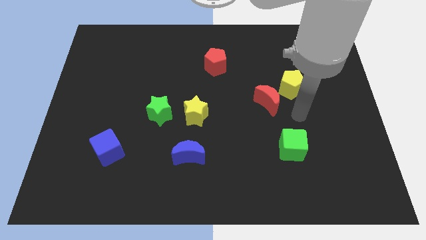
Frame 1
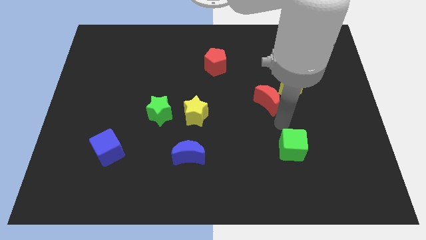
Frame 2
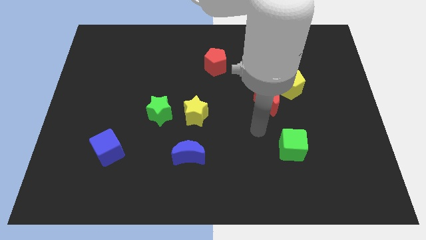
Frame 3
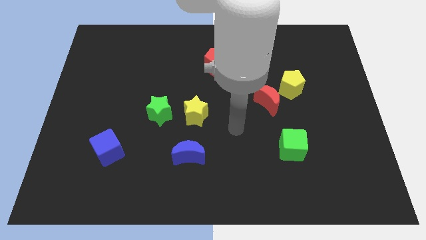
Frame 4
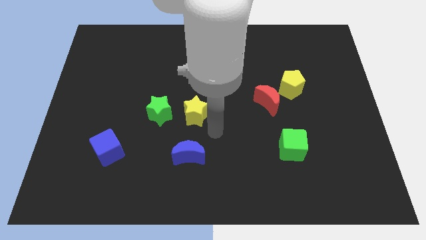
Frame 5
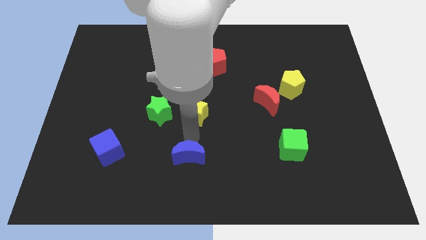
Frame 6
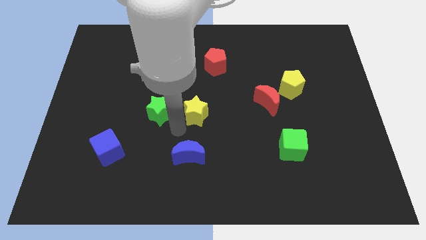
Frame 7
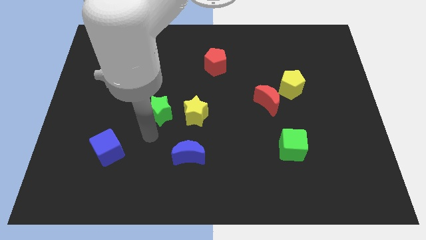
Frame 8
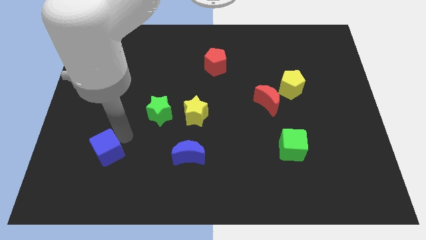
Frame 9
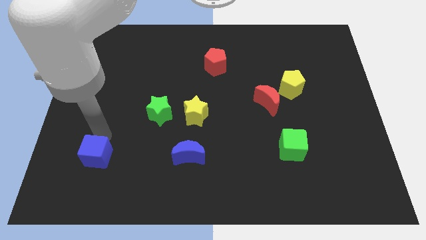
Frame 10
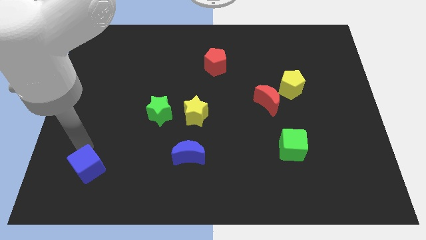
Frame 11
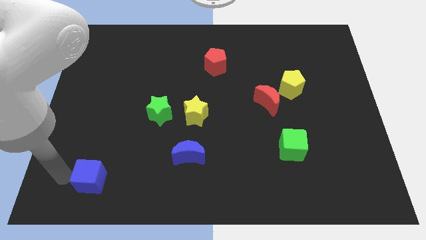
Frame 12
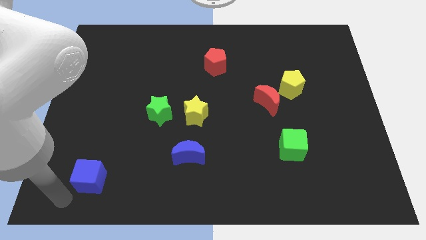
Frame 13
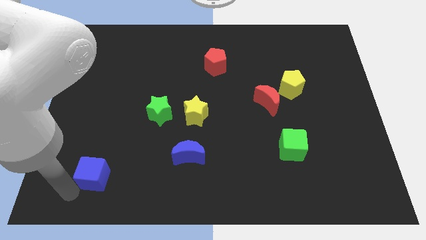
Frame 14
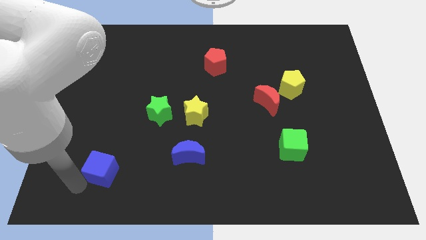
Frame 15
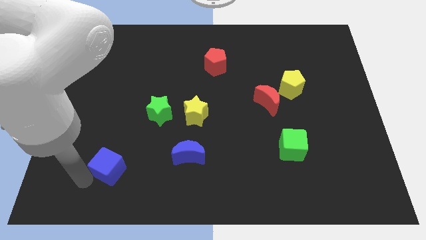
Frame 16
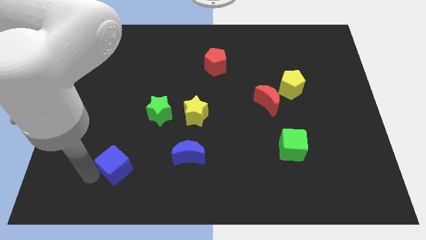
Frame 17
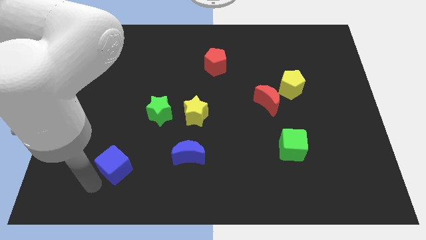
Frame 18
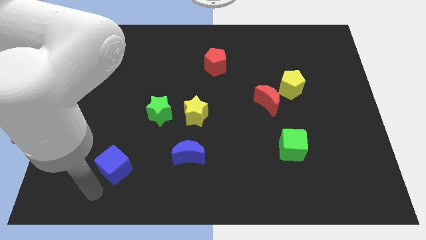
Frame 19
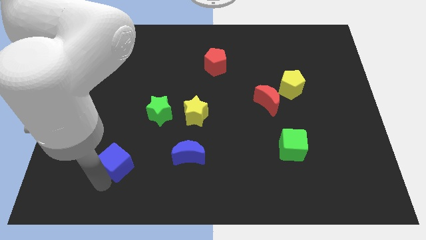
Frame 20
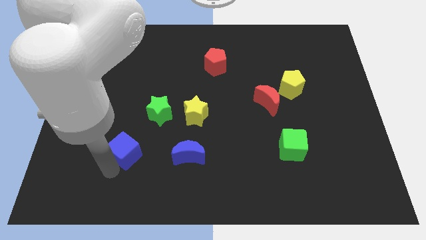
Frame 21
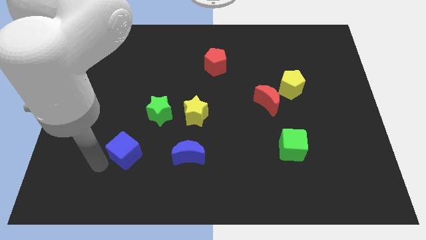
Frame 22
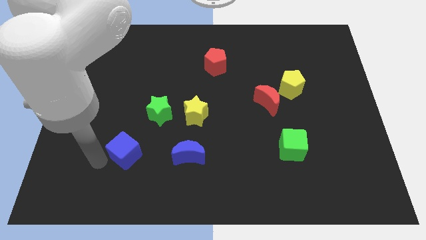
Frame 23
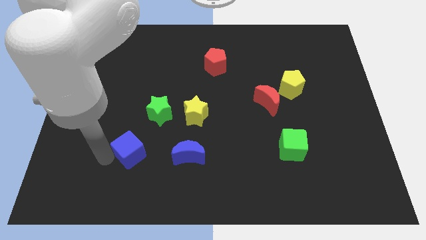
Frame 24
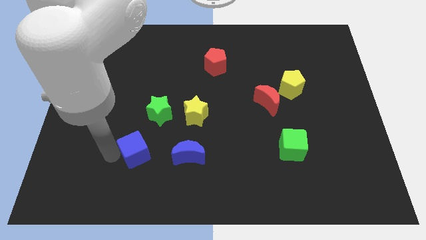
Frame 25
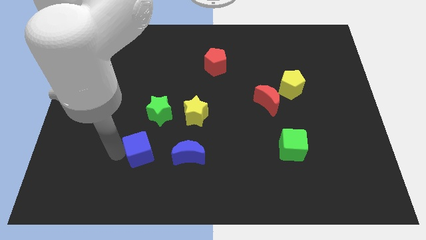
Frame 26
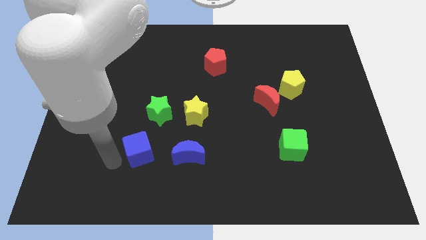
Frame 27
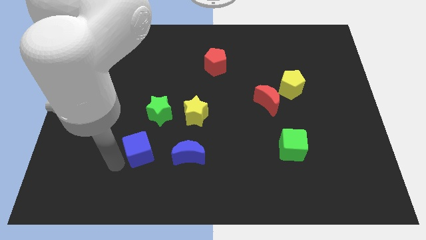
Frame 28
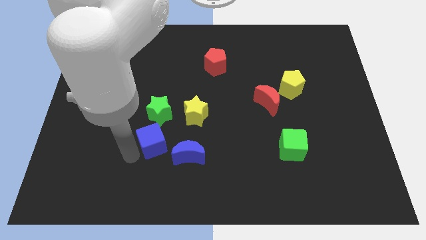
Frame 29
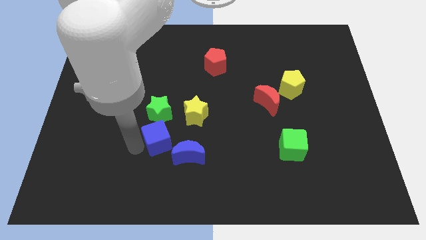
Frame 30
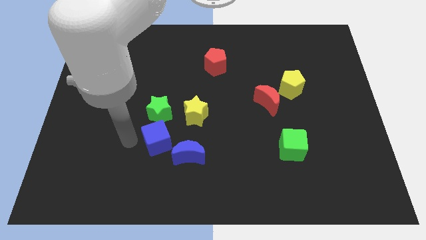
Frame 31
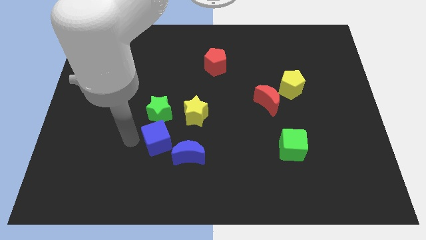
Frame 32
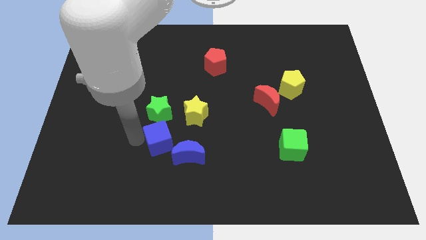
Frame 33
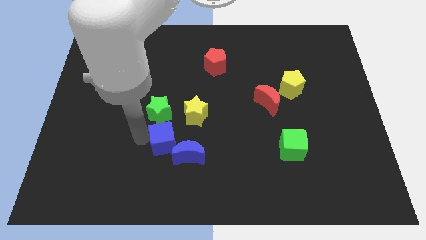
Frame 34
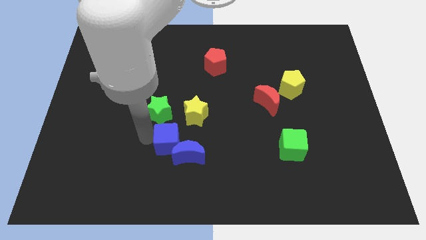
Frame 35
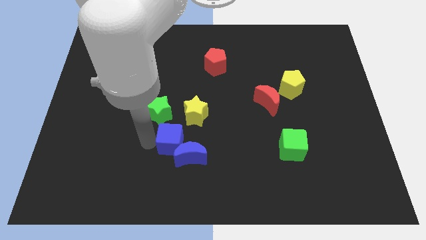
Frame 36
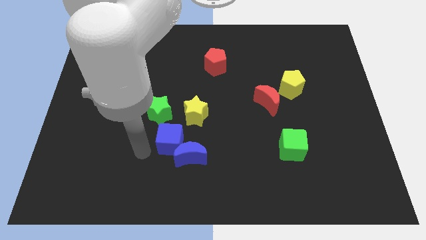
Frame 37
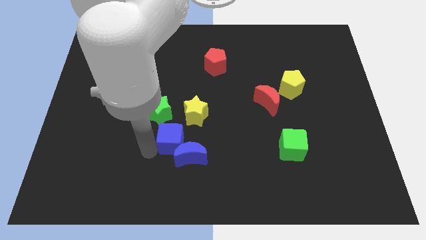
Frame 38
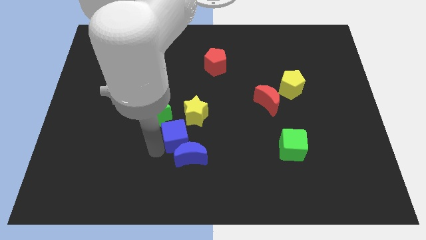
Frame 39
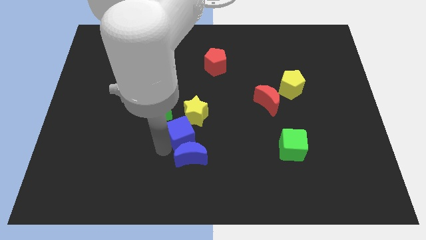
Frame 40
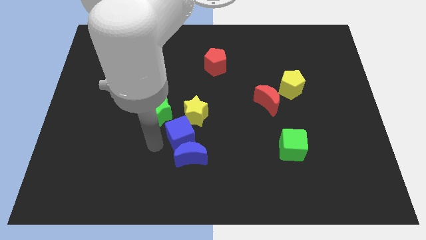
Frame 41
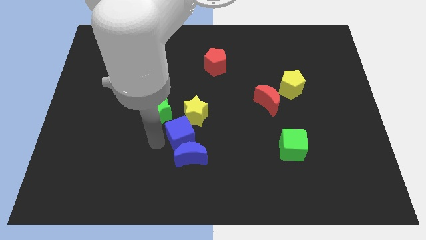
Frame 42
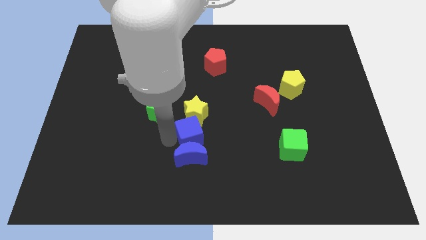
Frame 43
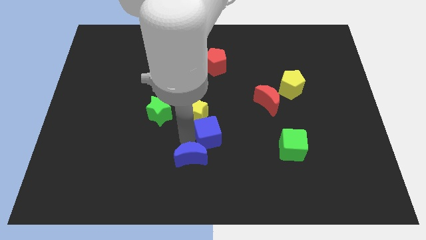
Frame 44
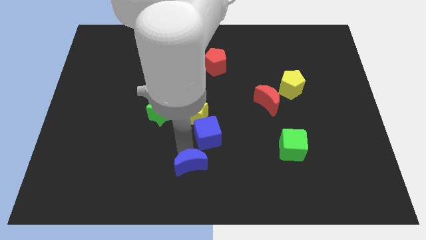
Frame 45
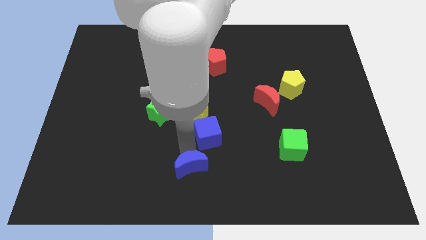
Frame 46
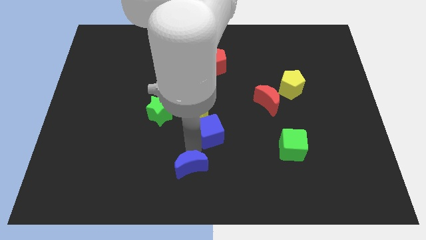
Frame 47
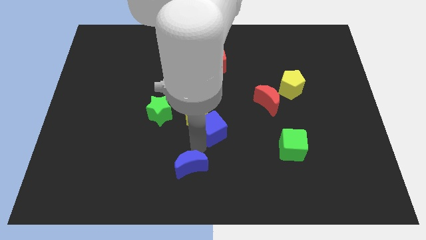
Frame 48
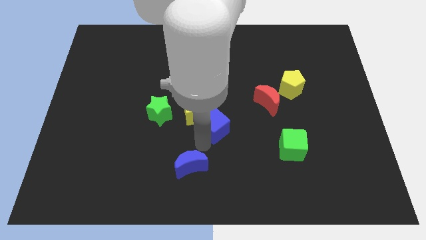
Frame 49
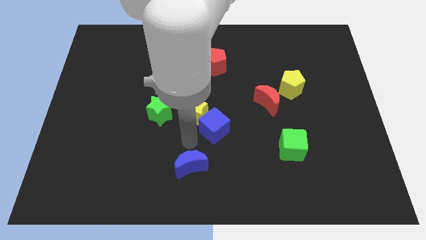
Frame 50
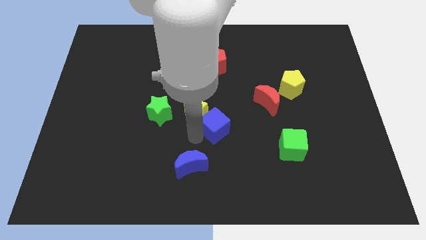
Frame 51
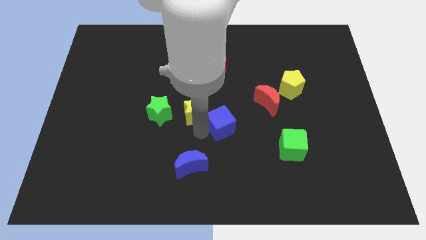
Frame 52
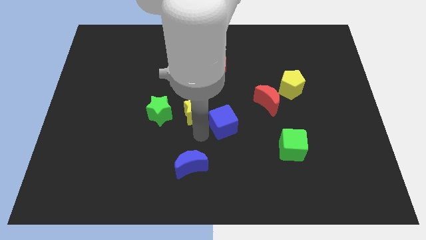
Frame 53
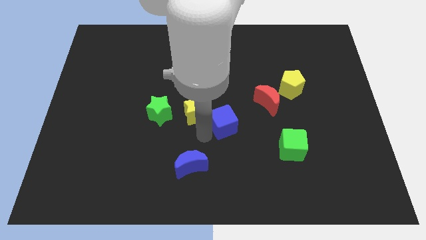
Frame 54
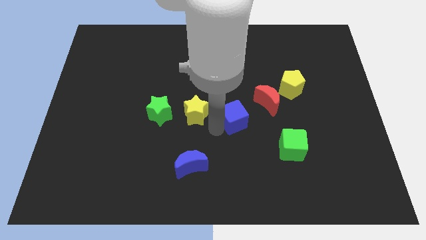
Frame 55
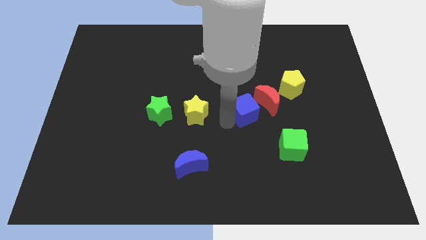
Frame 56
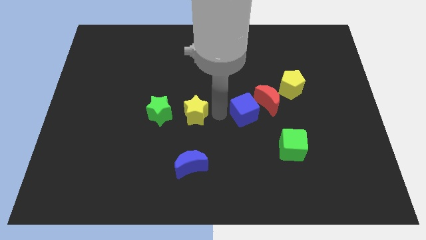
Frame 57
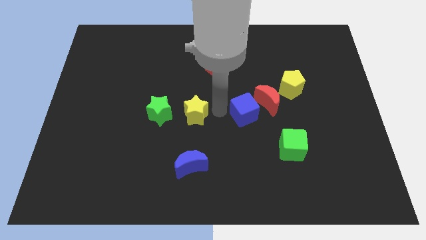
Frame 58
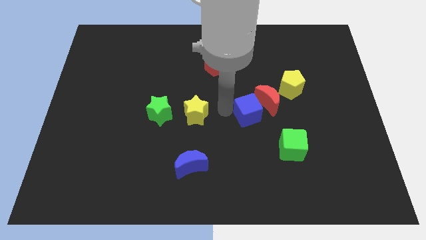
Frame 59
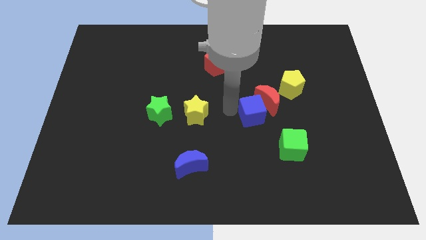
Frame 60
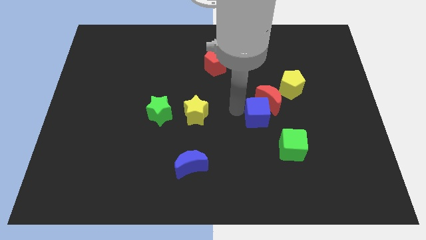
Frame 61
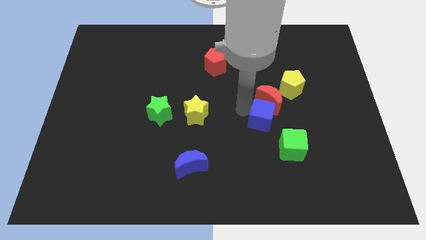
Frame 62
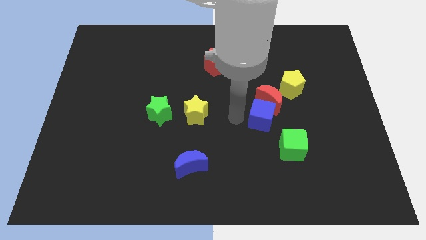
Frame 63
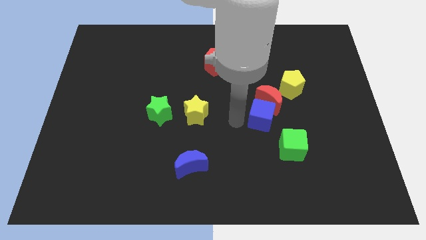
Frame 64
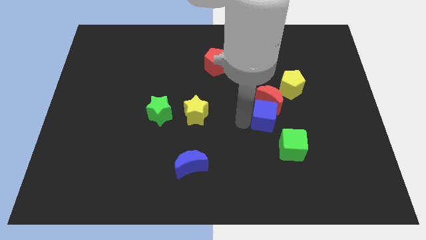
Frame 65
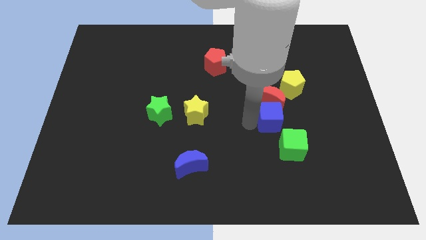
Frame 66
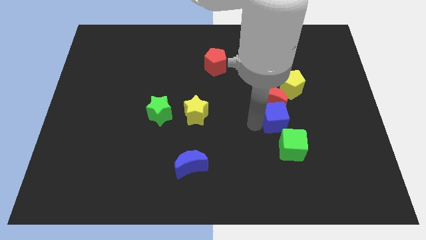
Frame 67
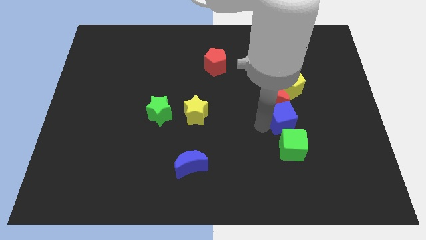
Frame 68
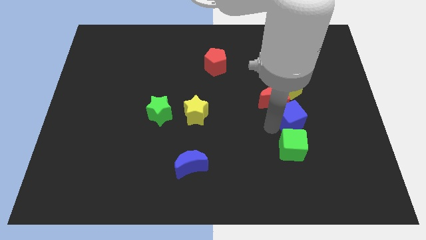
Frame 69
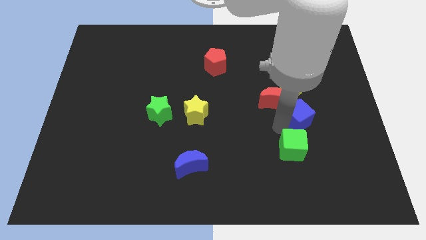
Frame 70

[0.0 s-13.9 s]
push the blue cube just right of the red moon
